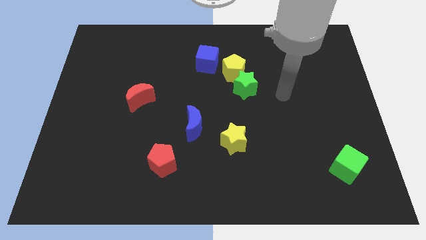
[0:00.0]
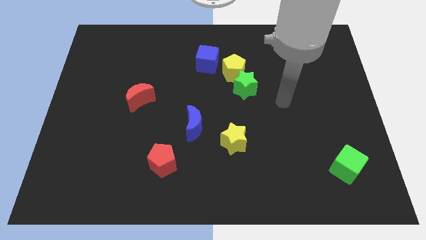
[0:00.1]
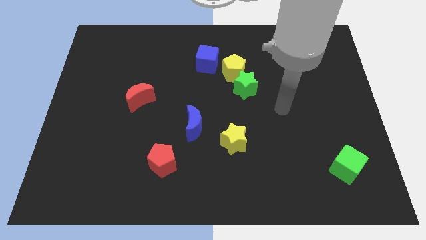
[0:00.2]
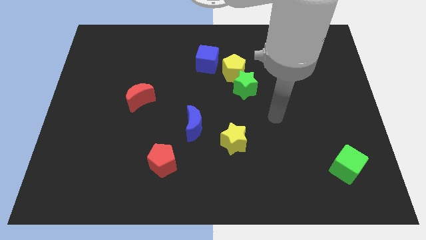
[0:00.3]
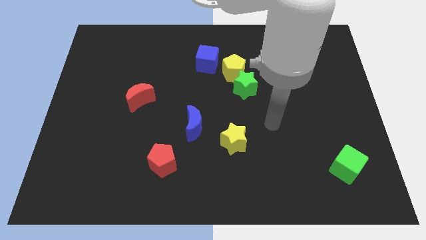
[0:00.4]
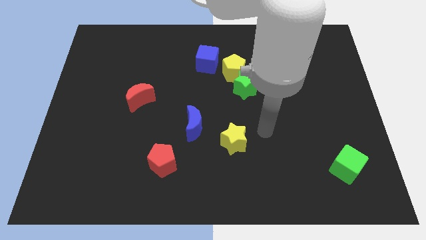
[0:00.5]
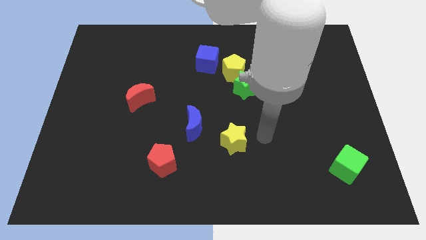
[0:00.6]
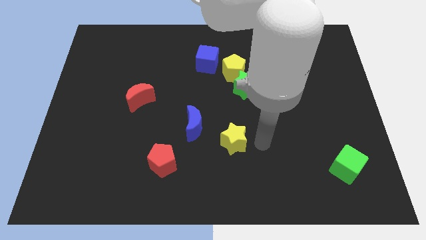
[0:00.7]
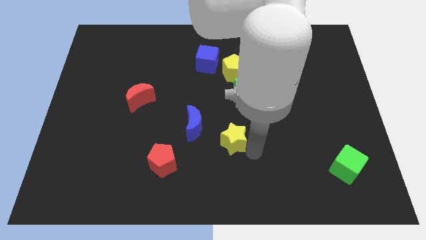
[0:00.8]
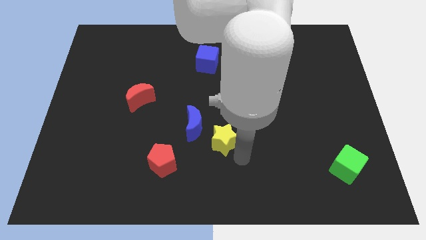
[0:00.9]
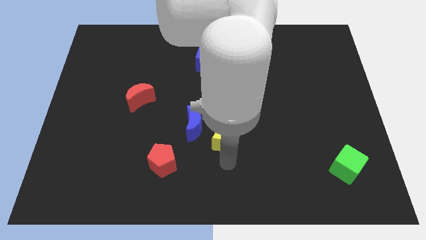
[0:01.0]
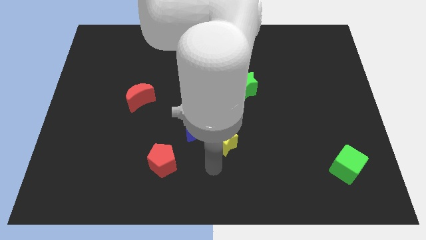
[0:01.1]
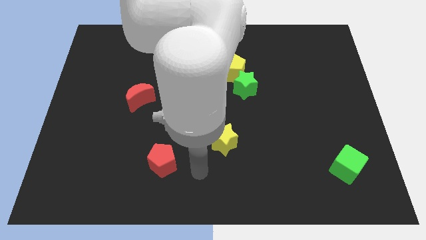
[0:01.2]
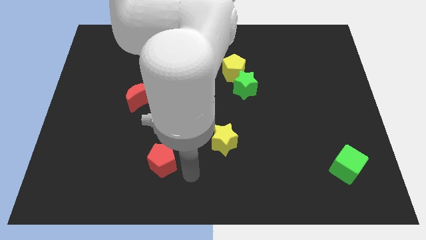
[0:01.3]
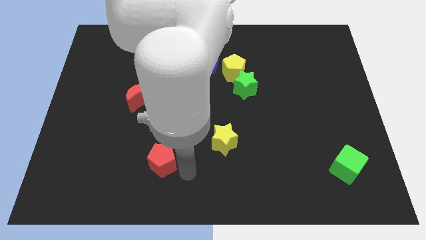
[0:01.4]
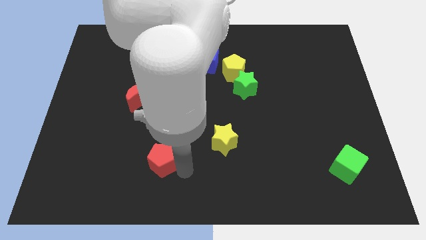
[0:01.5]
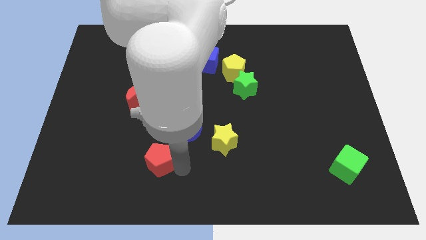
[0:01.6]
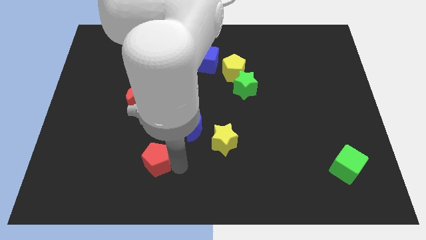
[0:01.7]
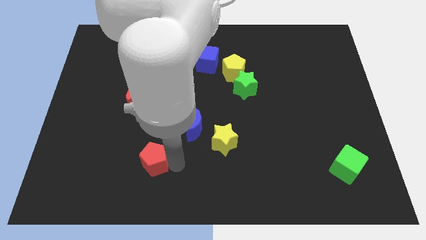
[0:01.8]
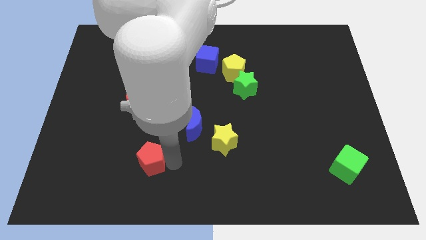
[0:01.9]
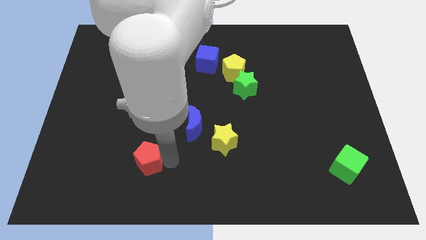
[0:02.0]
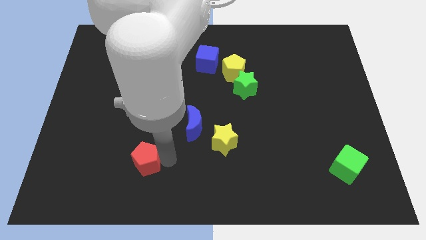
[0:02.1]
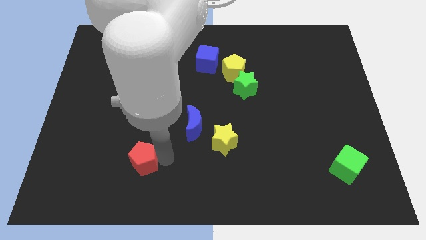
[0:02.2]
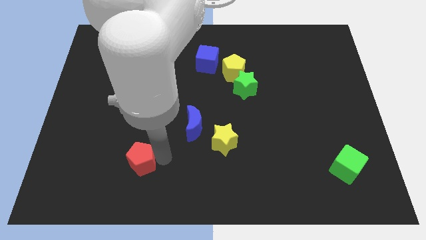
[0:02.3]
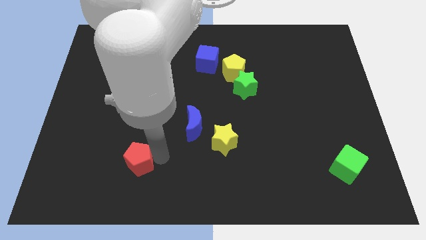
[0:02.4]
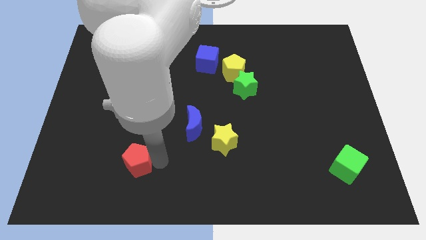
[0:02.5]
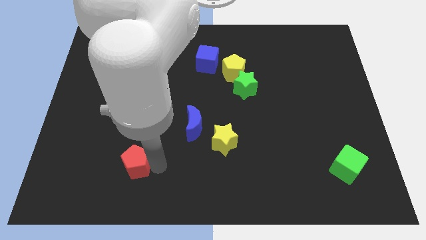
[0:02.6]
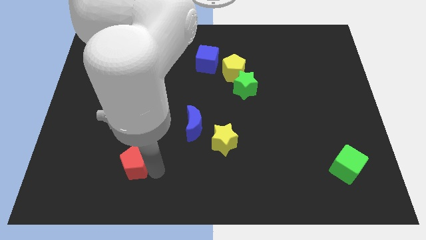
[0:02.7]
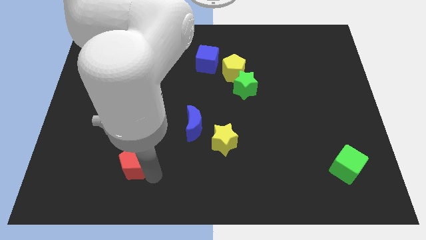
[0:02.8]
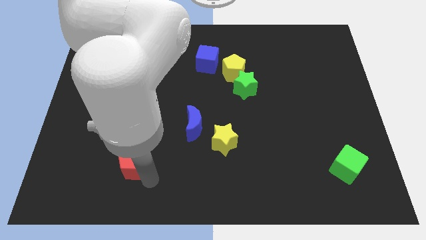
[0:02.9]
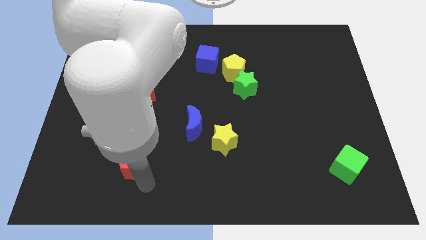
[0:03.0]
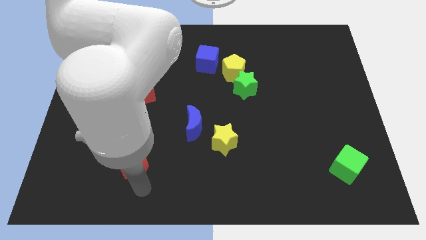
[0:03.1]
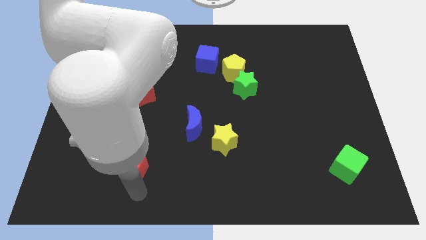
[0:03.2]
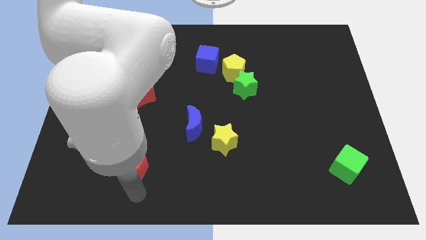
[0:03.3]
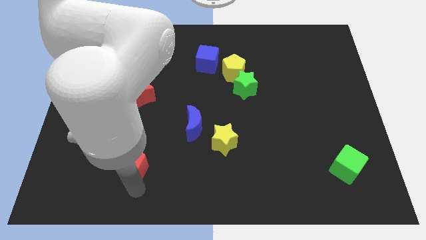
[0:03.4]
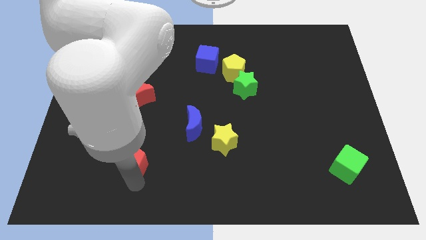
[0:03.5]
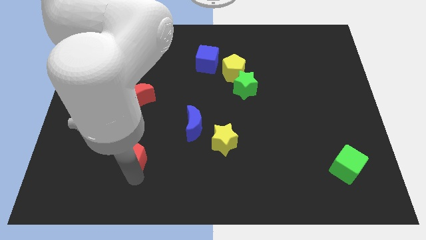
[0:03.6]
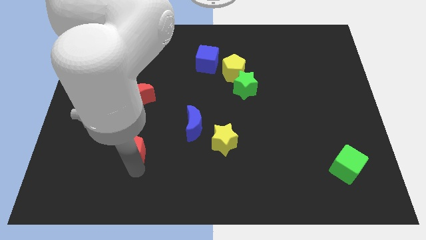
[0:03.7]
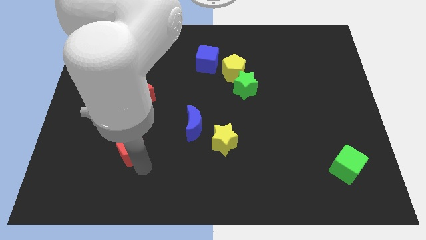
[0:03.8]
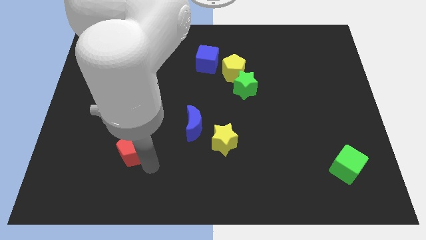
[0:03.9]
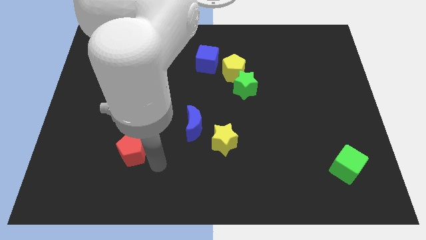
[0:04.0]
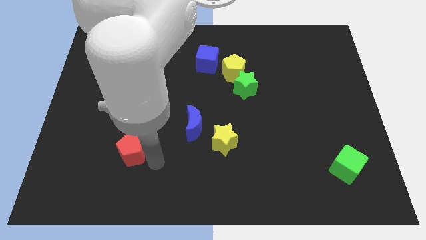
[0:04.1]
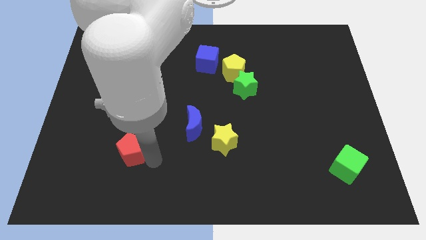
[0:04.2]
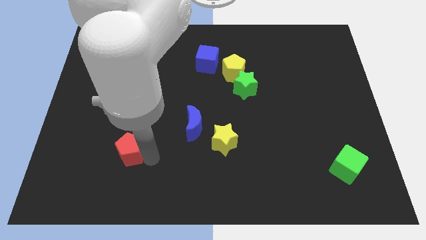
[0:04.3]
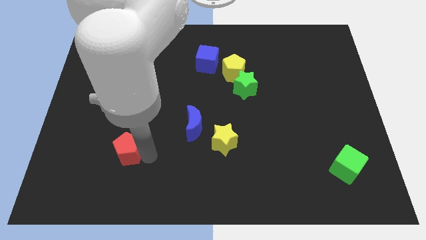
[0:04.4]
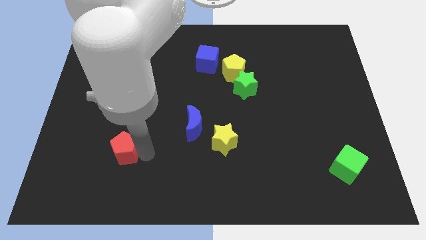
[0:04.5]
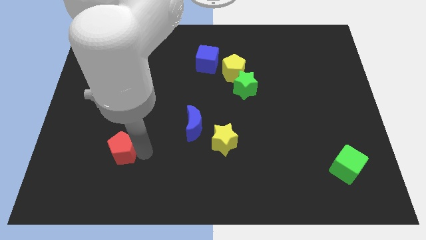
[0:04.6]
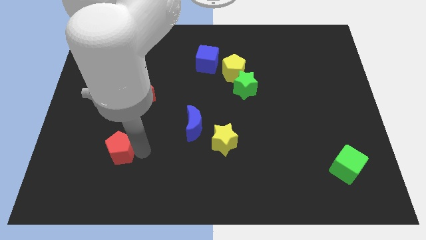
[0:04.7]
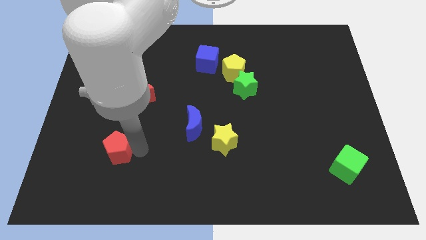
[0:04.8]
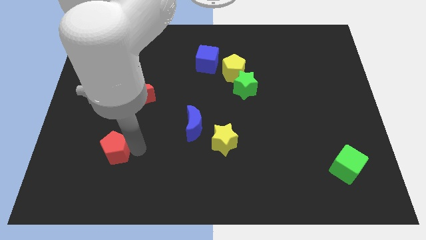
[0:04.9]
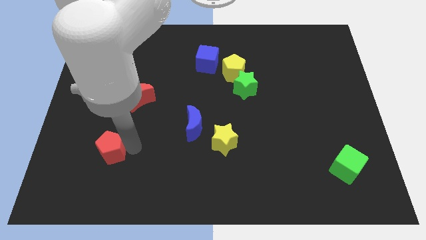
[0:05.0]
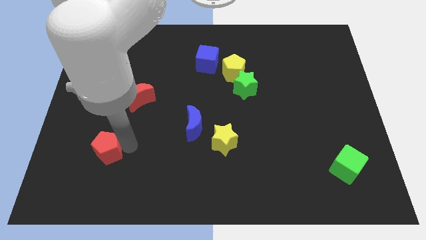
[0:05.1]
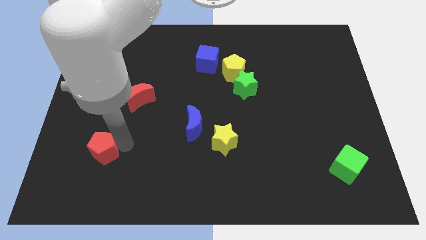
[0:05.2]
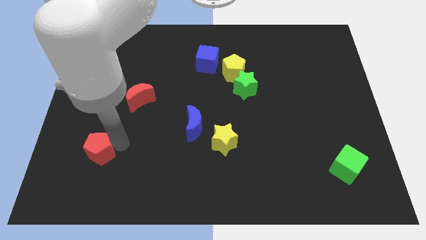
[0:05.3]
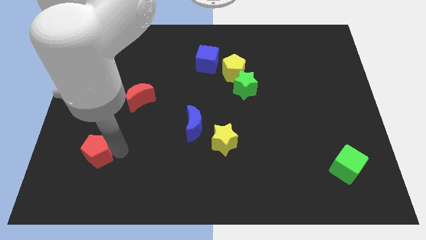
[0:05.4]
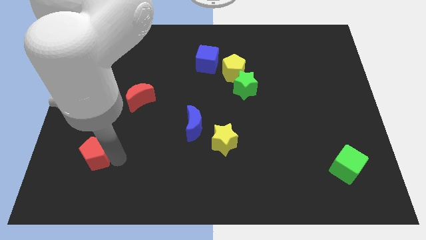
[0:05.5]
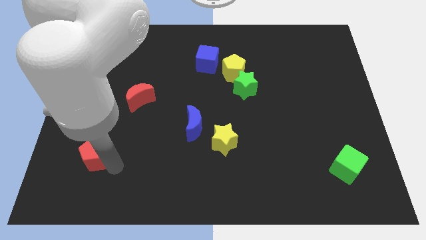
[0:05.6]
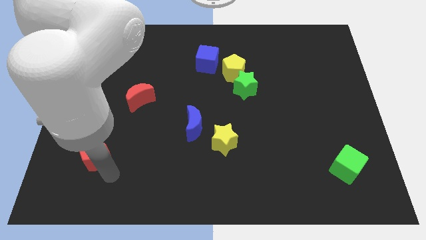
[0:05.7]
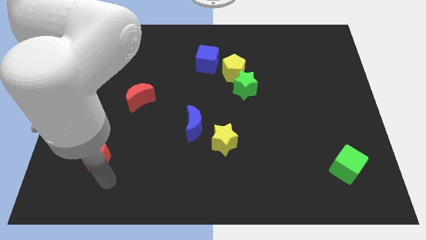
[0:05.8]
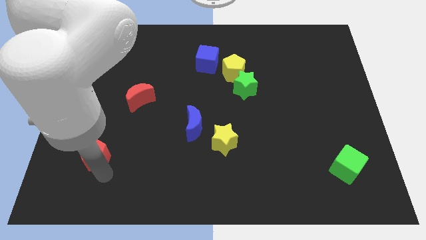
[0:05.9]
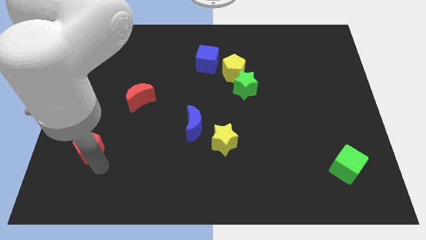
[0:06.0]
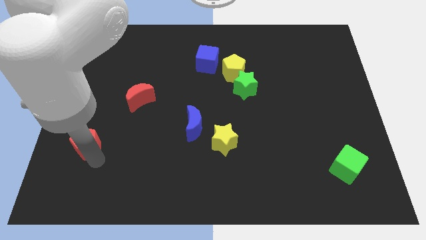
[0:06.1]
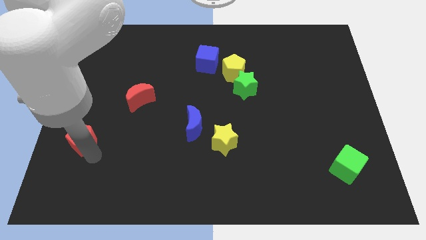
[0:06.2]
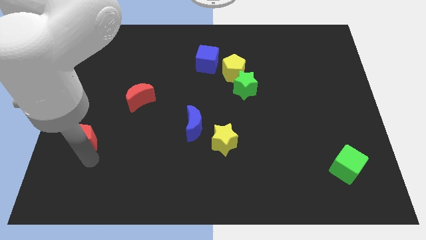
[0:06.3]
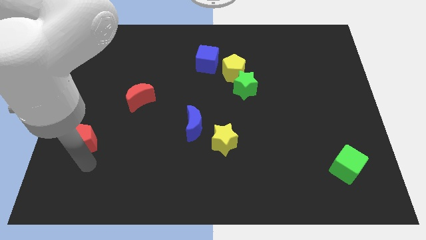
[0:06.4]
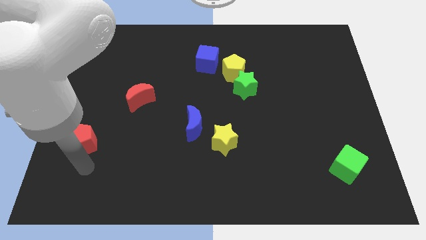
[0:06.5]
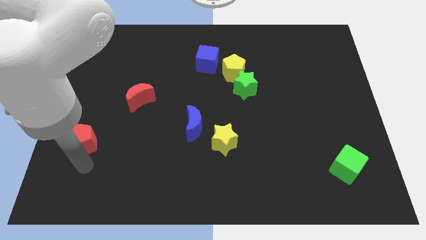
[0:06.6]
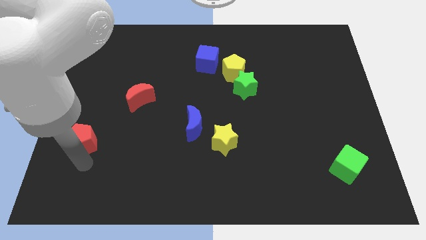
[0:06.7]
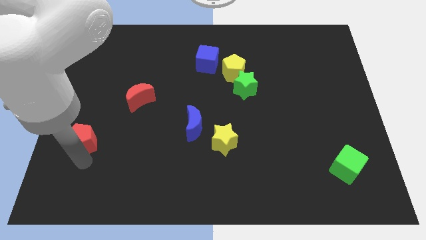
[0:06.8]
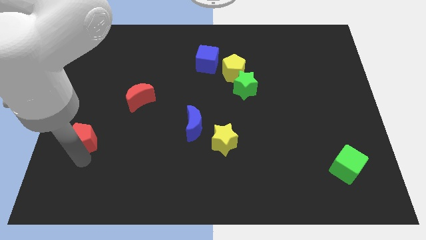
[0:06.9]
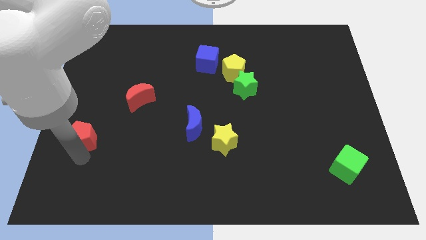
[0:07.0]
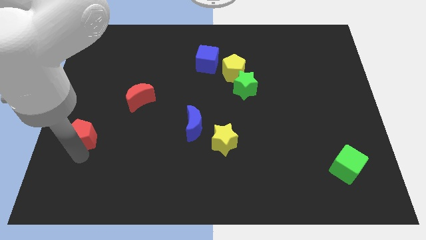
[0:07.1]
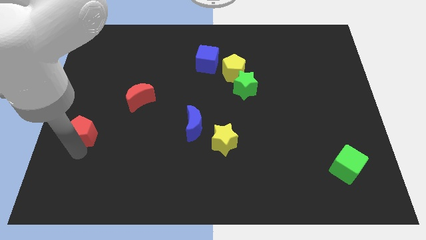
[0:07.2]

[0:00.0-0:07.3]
push the red pentagon to the left side of the board
